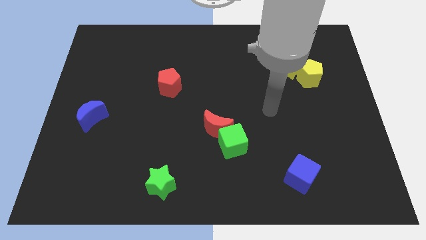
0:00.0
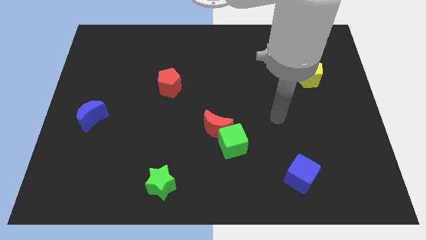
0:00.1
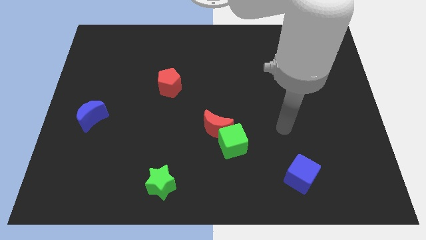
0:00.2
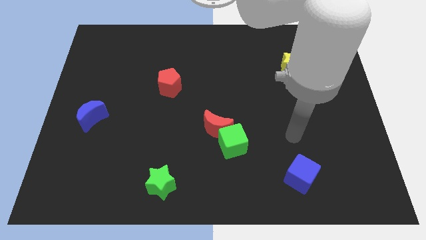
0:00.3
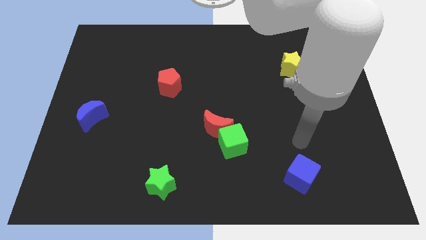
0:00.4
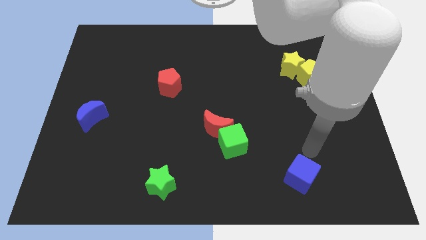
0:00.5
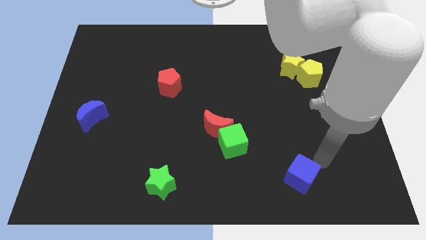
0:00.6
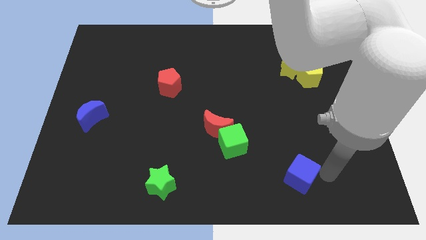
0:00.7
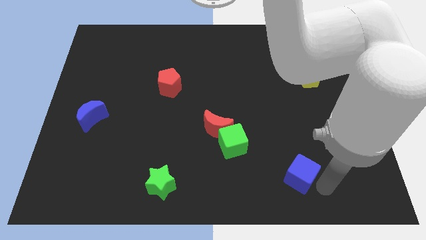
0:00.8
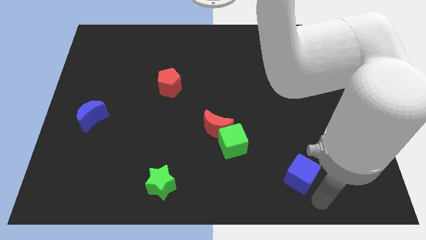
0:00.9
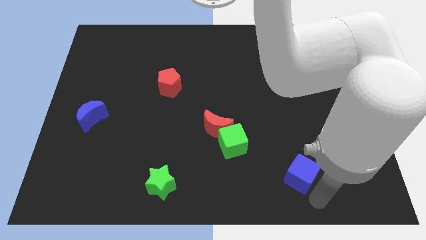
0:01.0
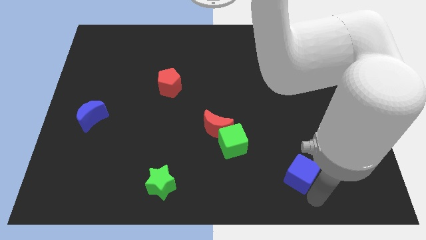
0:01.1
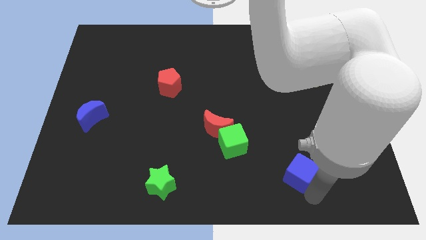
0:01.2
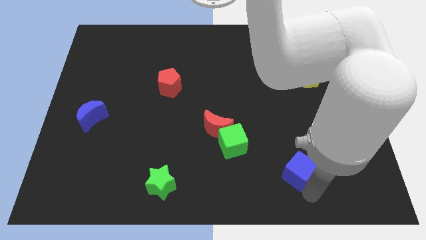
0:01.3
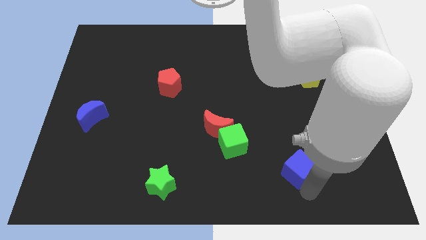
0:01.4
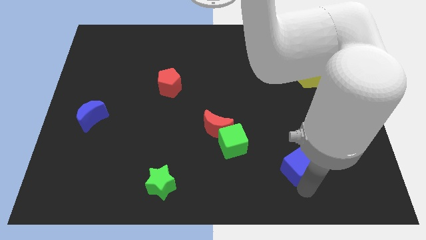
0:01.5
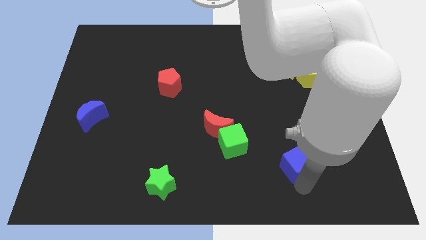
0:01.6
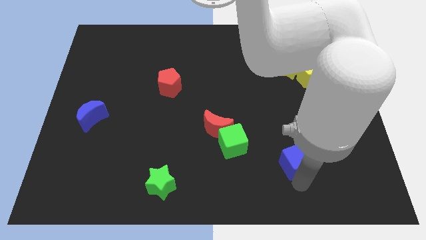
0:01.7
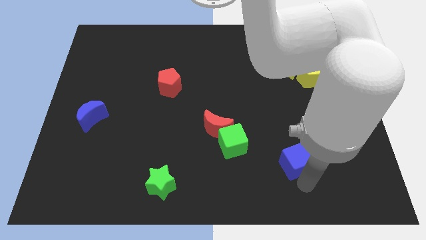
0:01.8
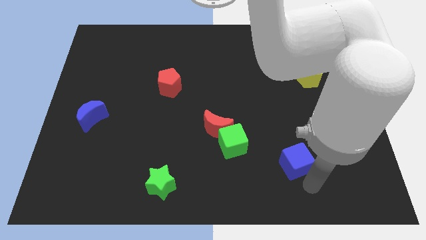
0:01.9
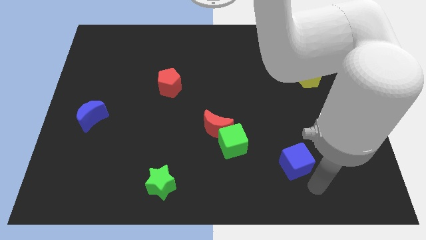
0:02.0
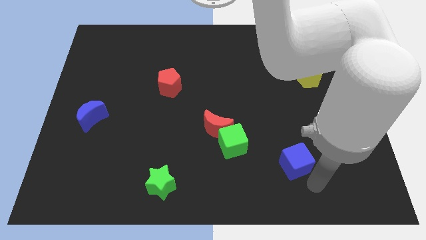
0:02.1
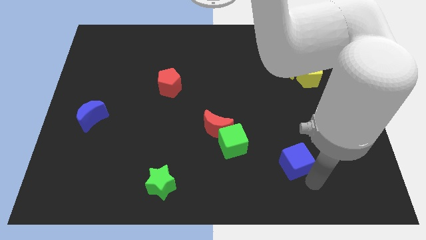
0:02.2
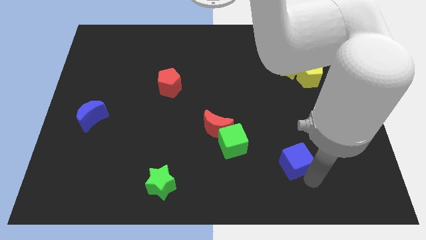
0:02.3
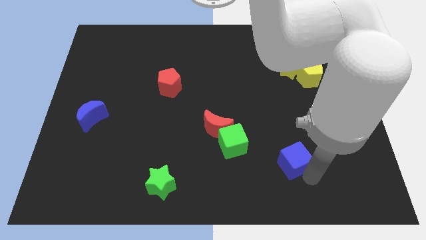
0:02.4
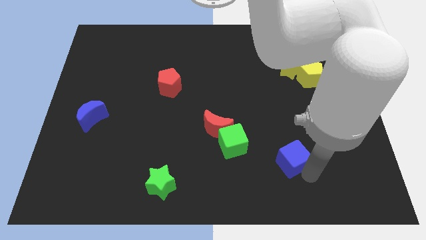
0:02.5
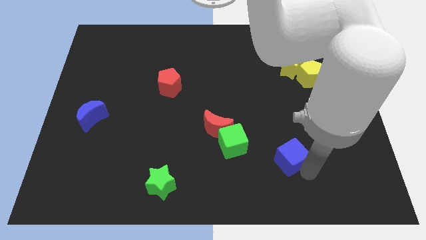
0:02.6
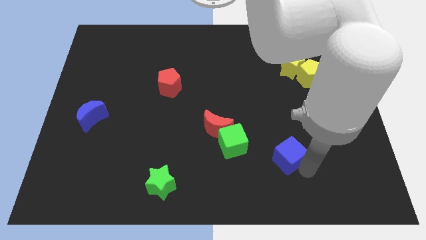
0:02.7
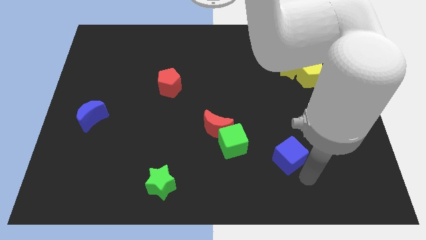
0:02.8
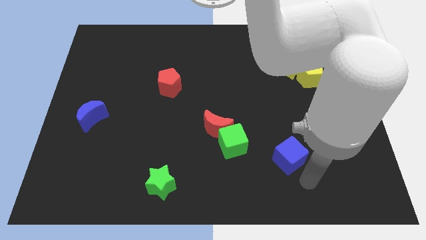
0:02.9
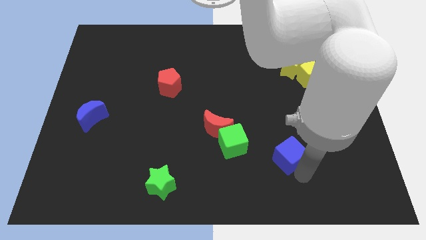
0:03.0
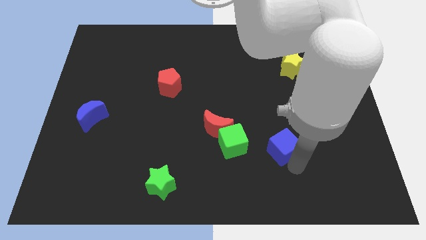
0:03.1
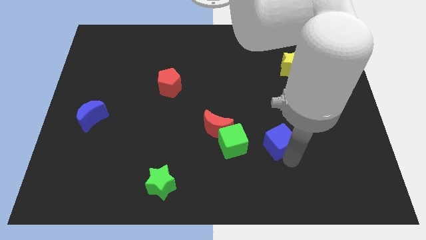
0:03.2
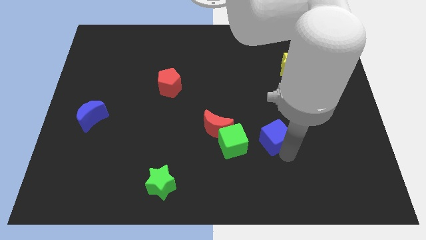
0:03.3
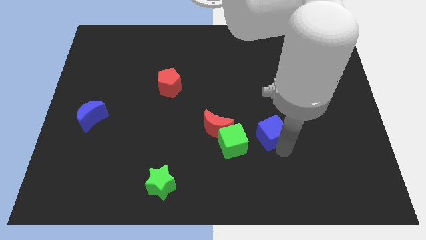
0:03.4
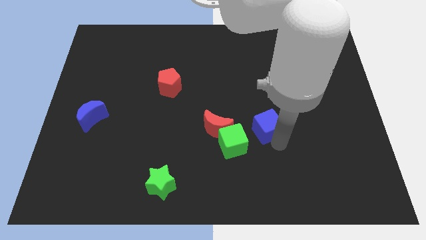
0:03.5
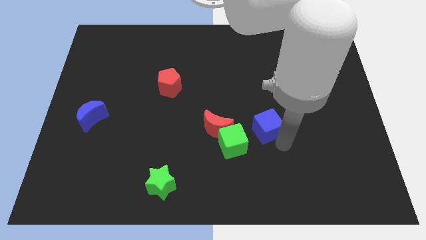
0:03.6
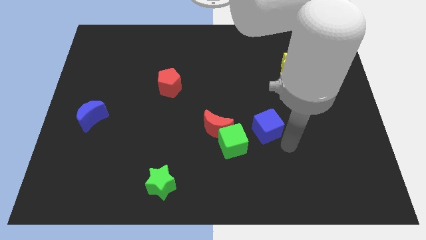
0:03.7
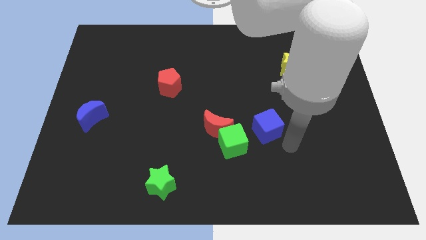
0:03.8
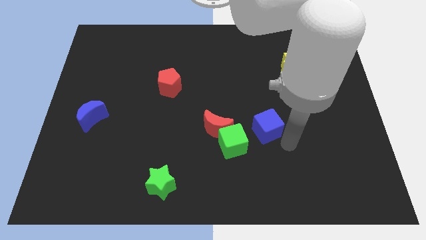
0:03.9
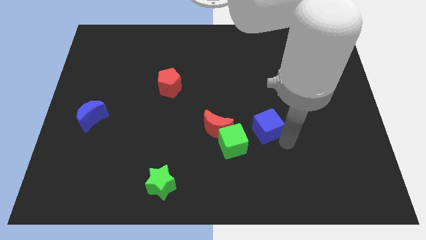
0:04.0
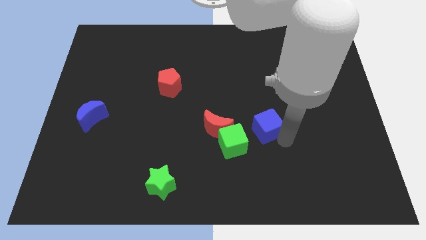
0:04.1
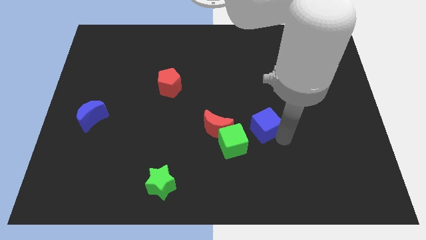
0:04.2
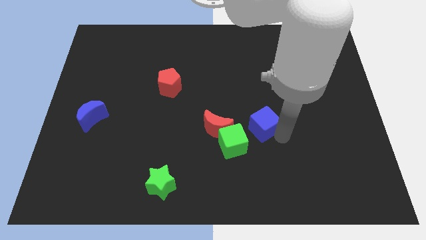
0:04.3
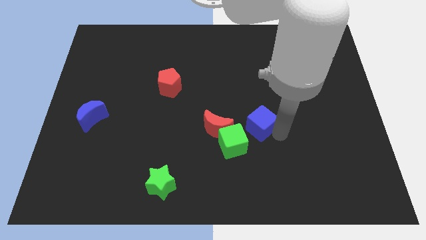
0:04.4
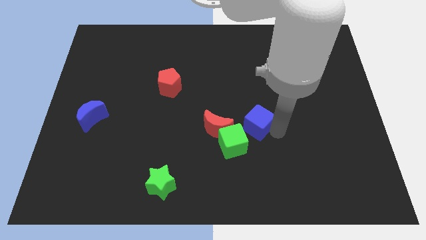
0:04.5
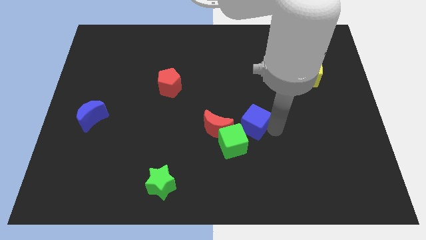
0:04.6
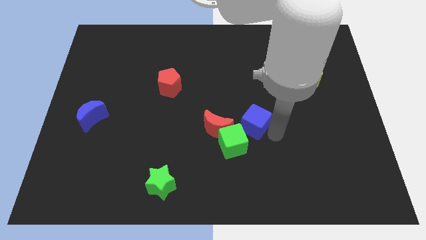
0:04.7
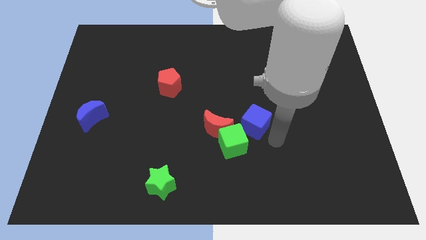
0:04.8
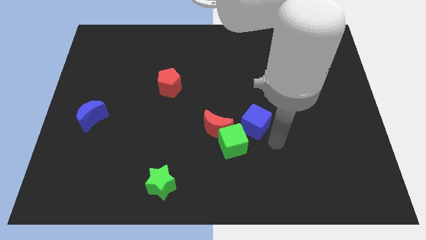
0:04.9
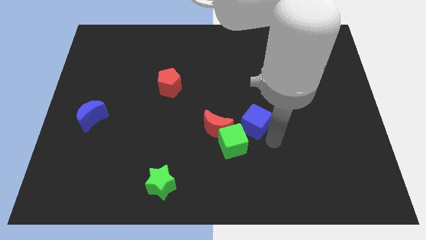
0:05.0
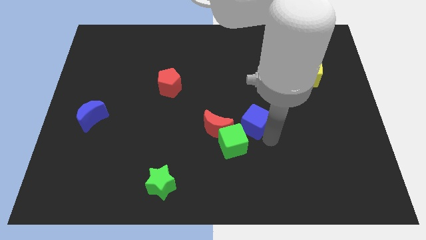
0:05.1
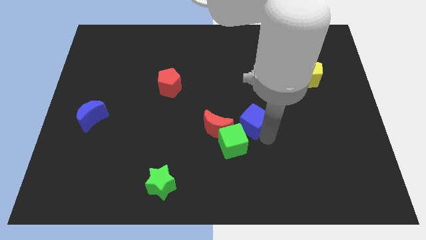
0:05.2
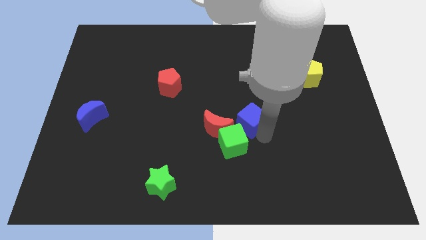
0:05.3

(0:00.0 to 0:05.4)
move the blue cube to the top right side of the red moon

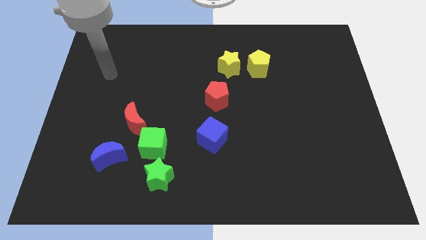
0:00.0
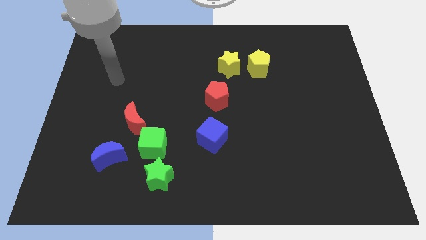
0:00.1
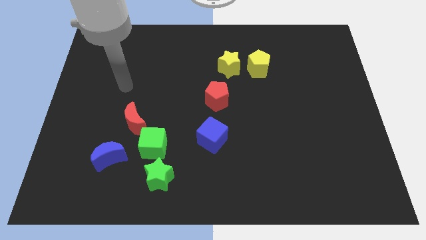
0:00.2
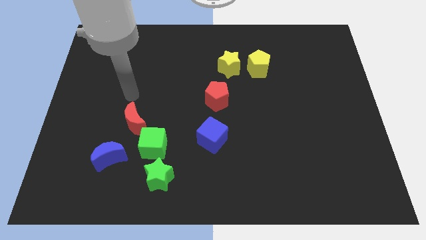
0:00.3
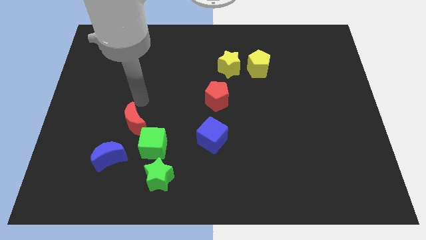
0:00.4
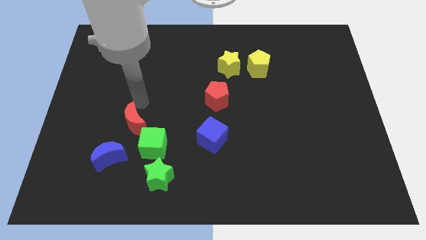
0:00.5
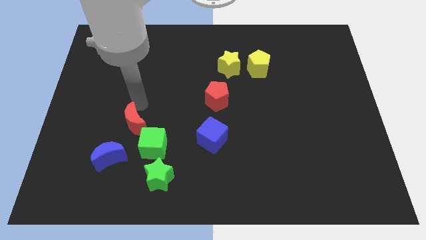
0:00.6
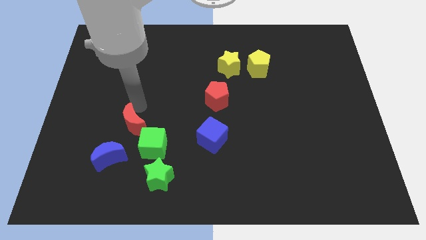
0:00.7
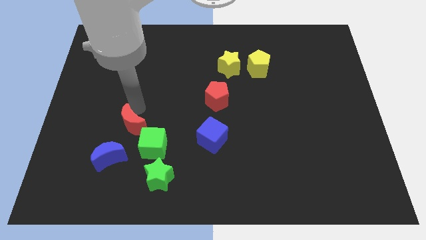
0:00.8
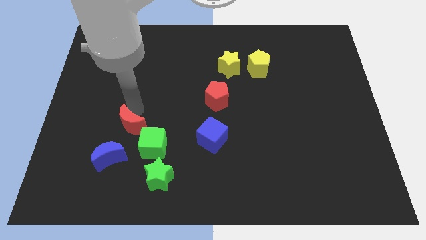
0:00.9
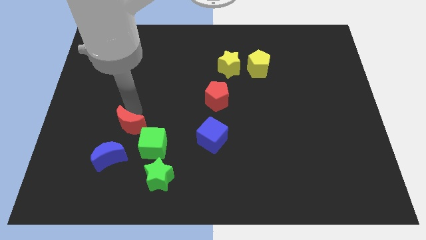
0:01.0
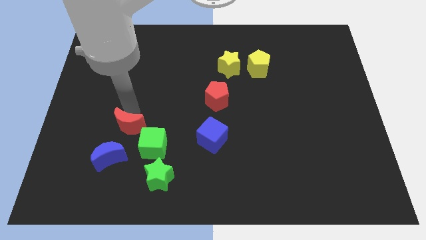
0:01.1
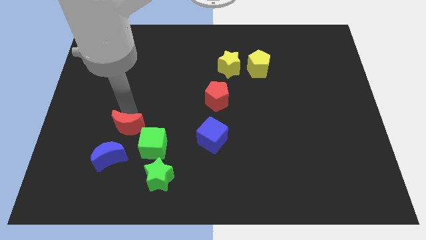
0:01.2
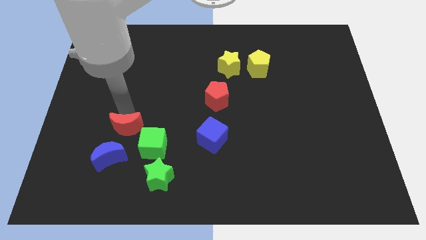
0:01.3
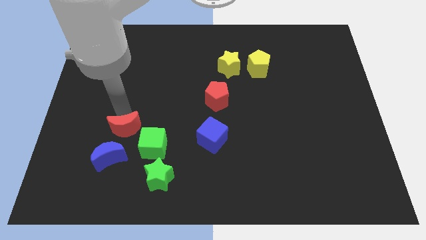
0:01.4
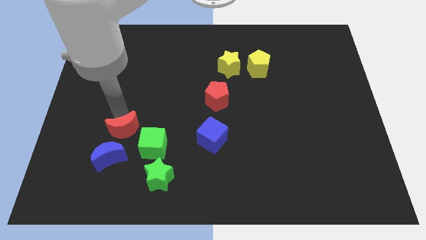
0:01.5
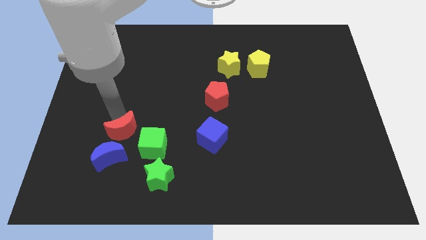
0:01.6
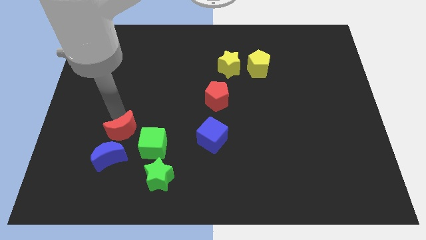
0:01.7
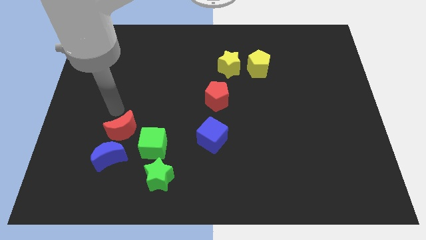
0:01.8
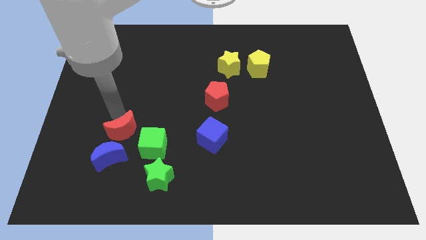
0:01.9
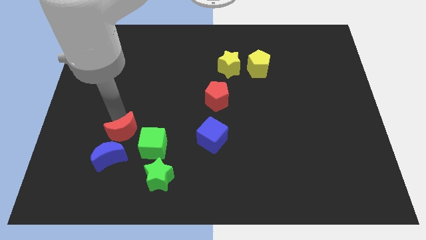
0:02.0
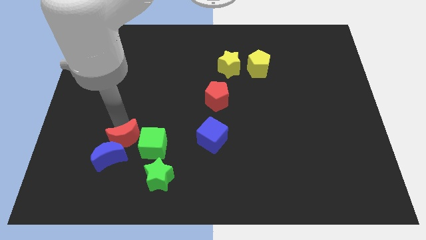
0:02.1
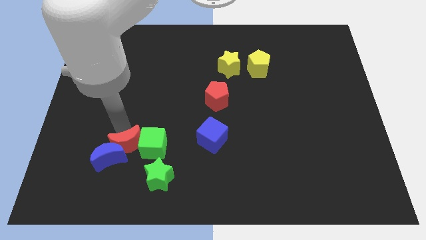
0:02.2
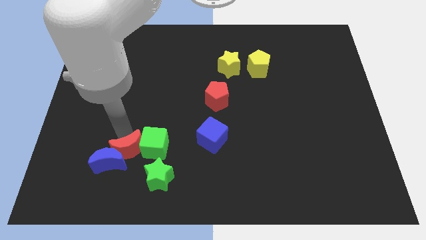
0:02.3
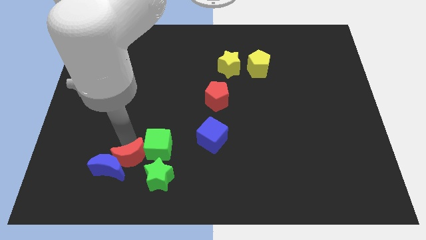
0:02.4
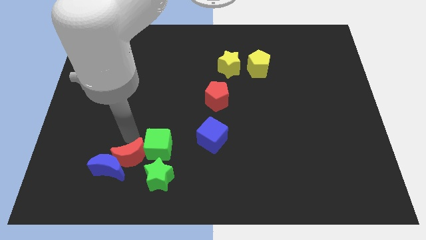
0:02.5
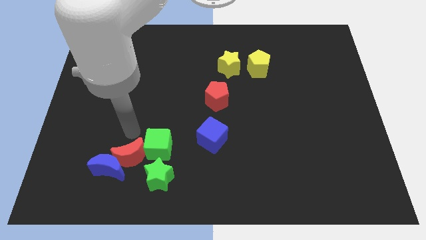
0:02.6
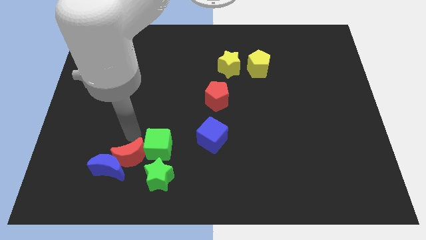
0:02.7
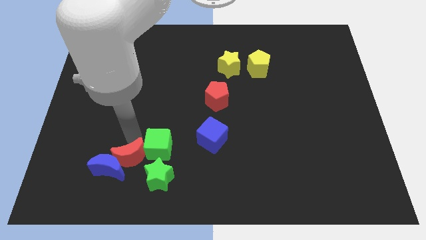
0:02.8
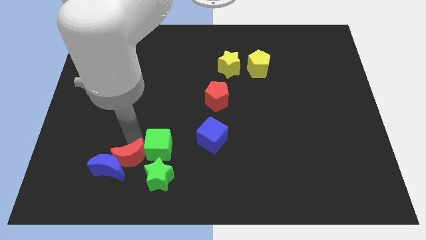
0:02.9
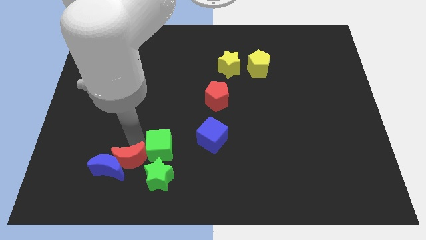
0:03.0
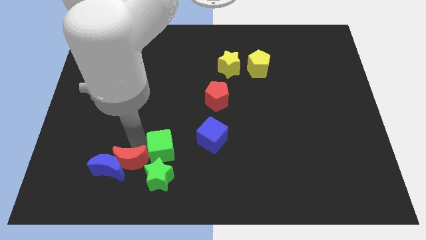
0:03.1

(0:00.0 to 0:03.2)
push the red moon diagonally down and to the right of the blue moon
